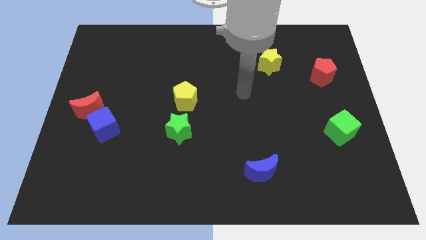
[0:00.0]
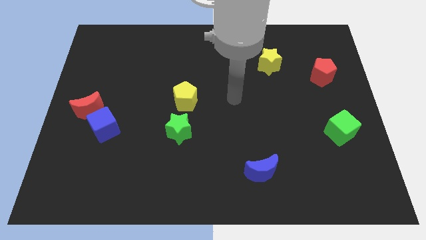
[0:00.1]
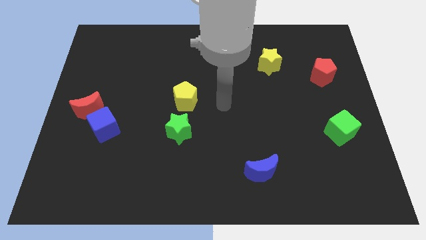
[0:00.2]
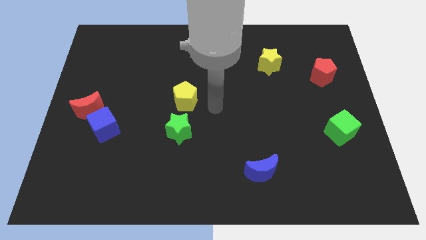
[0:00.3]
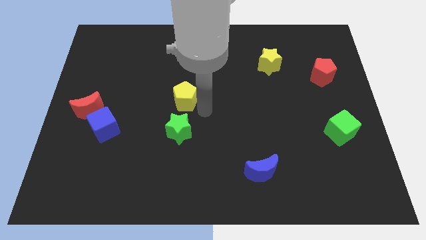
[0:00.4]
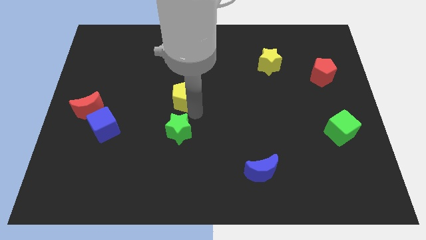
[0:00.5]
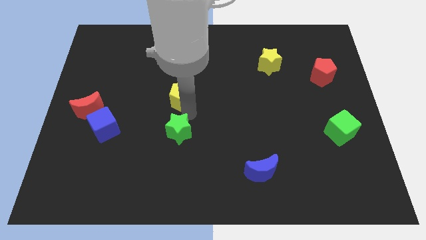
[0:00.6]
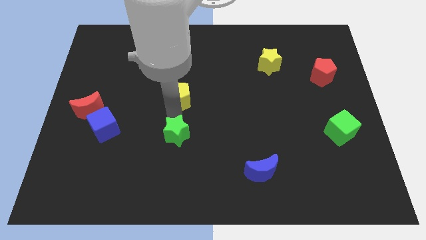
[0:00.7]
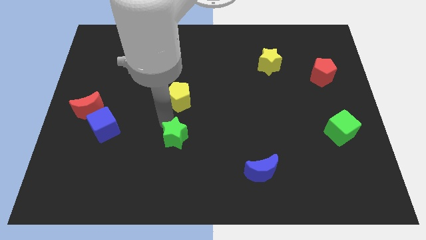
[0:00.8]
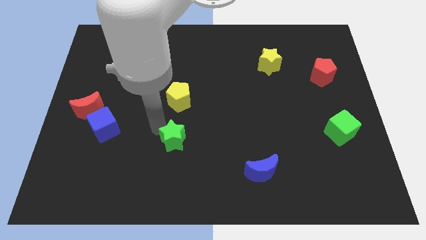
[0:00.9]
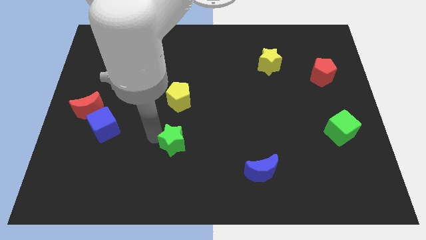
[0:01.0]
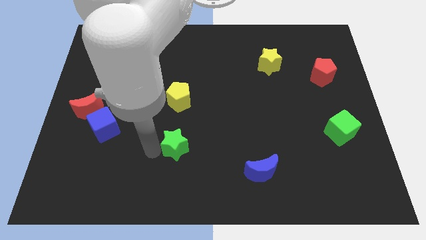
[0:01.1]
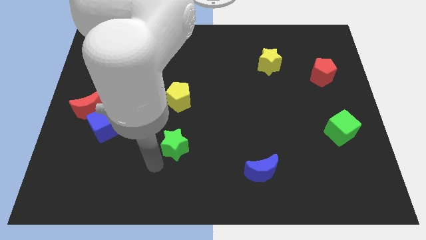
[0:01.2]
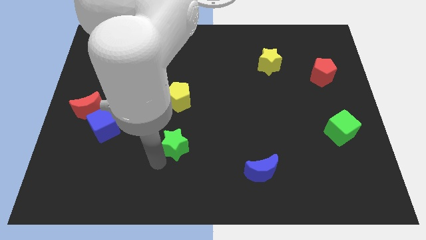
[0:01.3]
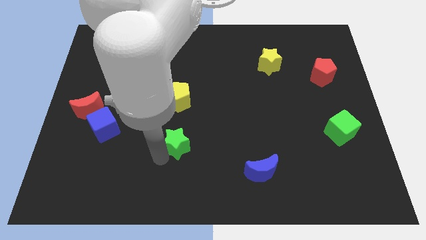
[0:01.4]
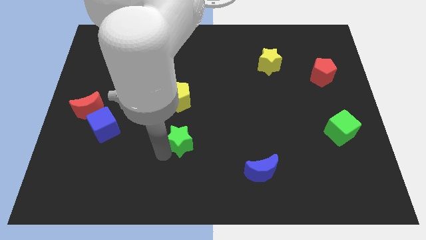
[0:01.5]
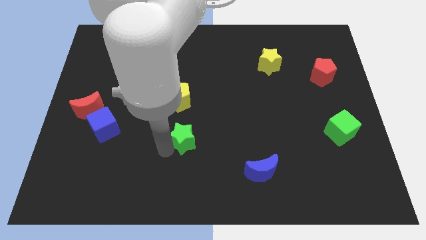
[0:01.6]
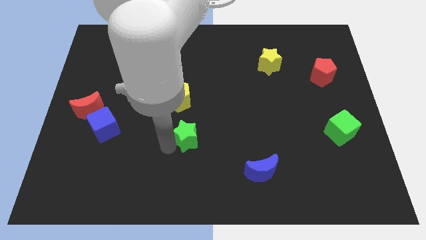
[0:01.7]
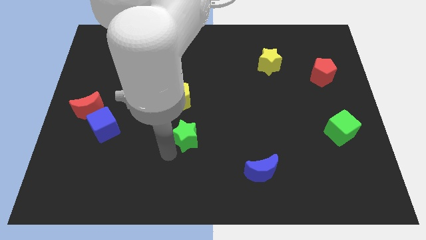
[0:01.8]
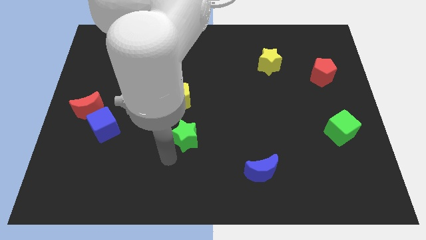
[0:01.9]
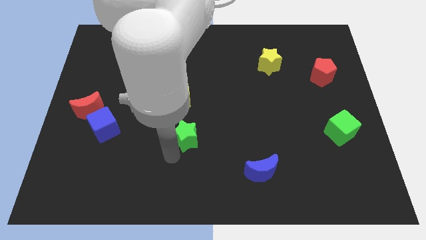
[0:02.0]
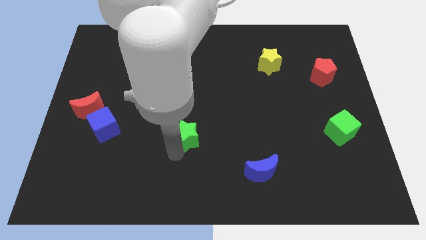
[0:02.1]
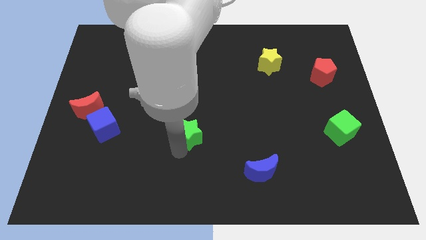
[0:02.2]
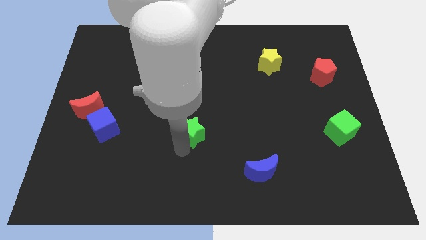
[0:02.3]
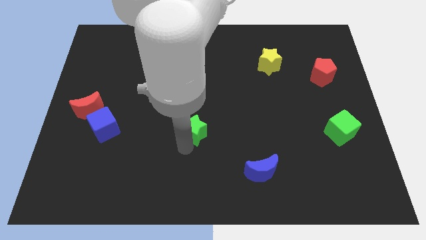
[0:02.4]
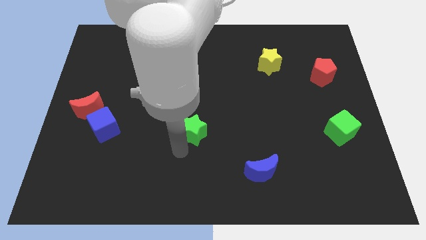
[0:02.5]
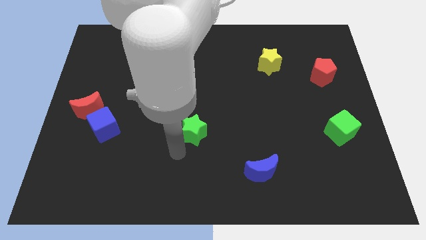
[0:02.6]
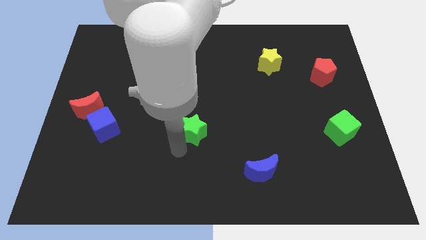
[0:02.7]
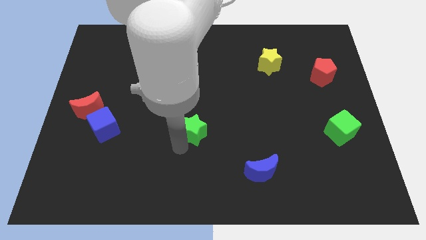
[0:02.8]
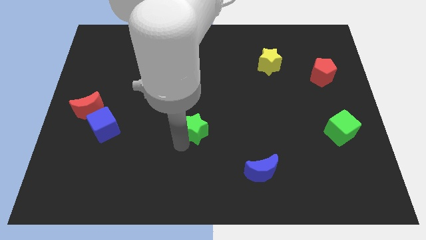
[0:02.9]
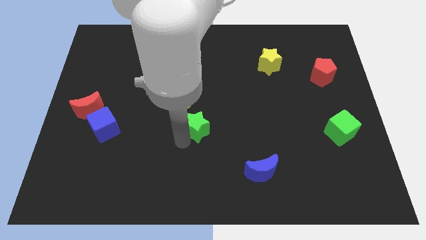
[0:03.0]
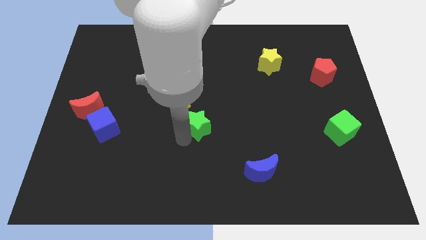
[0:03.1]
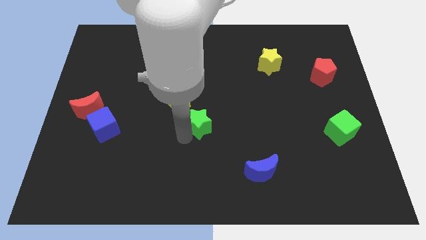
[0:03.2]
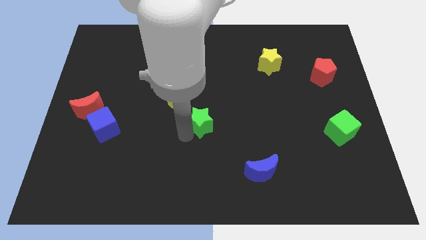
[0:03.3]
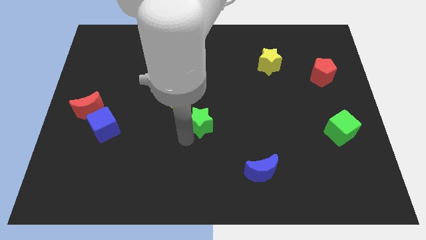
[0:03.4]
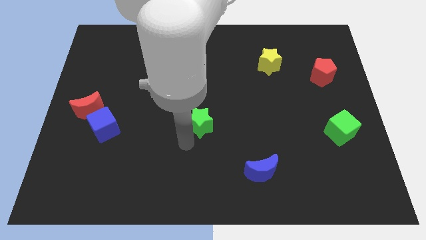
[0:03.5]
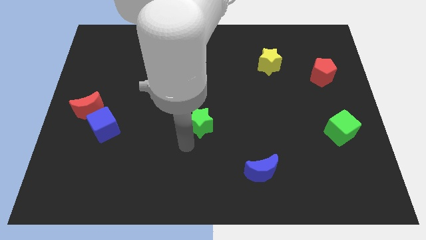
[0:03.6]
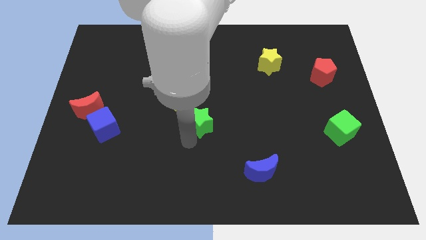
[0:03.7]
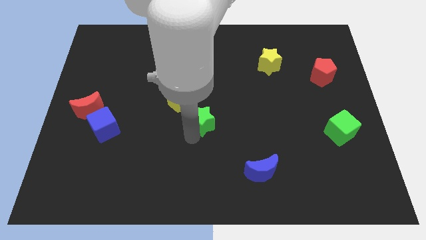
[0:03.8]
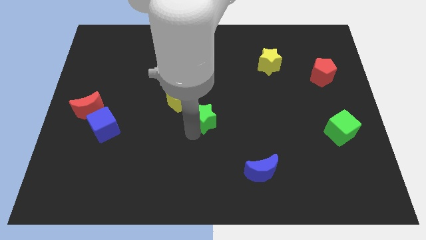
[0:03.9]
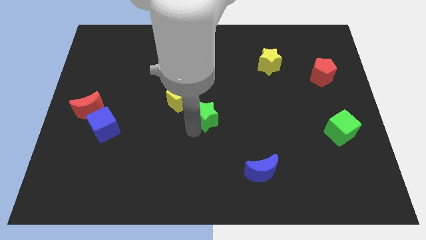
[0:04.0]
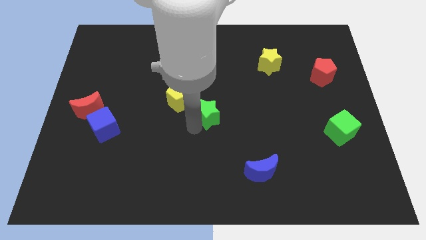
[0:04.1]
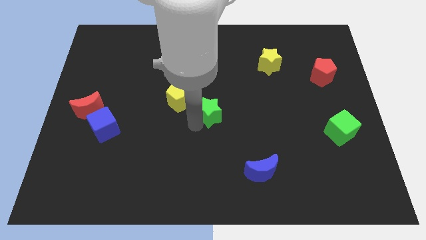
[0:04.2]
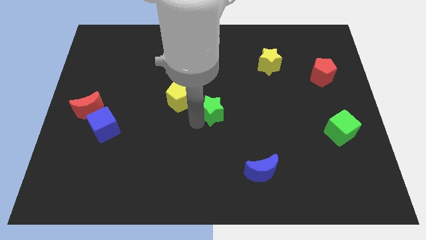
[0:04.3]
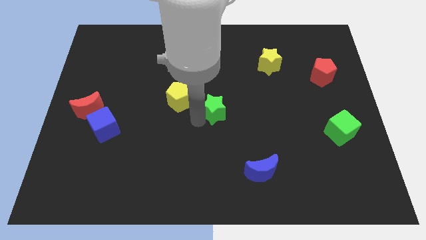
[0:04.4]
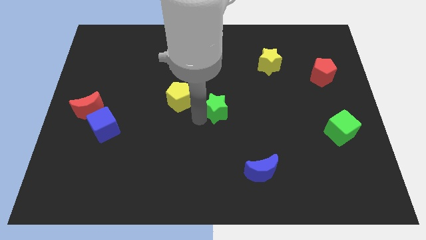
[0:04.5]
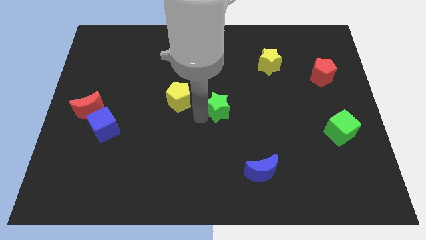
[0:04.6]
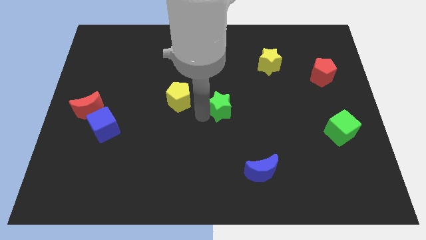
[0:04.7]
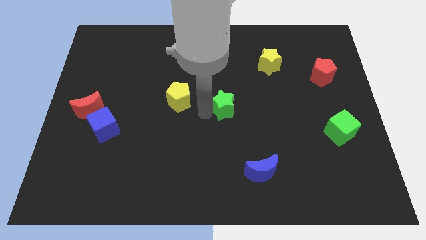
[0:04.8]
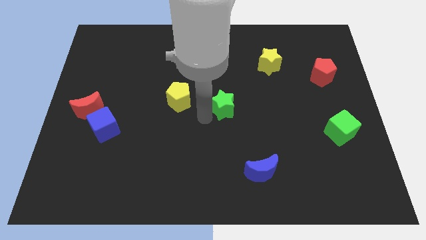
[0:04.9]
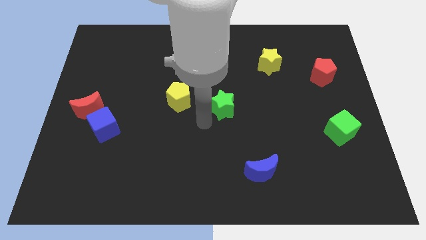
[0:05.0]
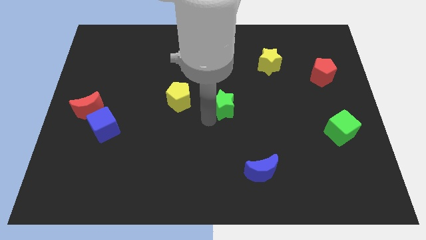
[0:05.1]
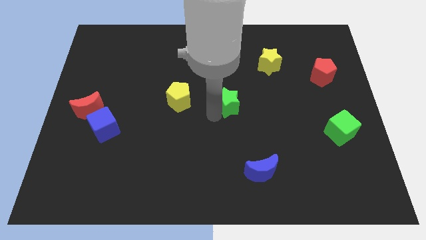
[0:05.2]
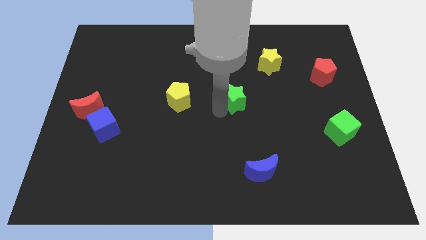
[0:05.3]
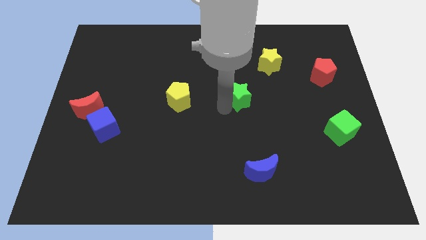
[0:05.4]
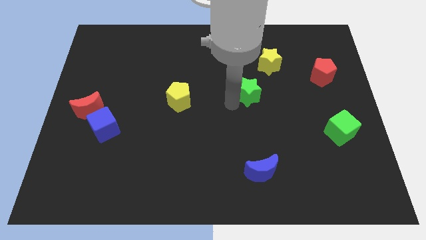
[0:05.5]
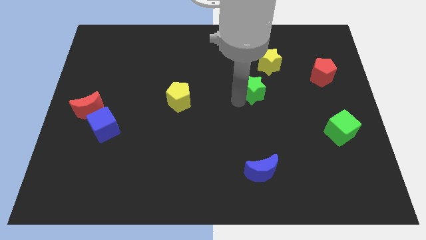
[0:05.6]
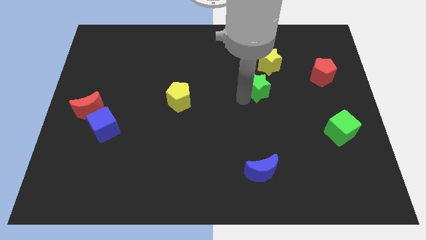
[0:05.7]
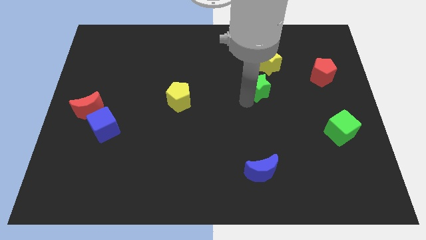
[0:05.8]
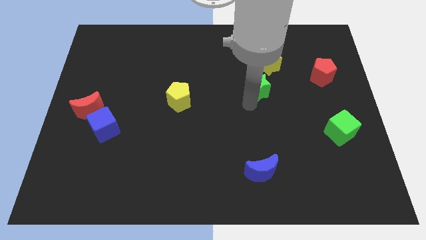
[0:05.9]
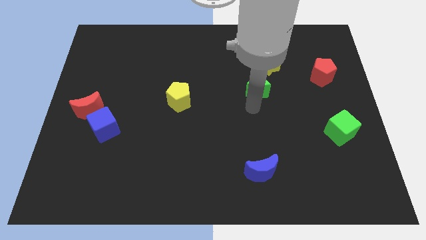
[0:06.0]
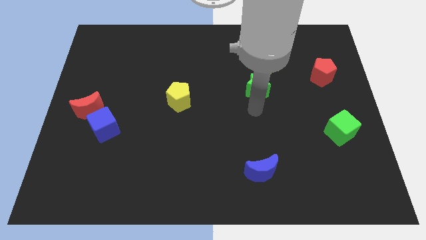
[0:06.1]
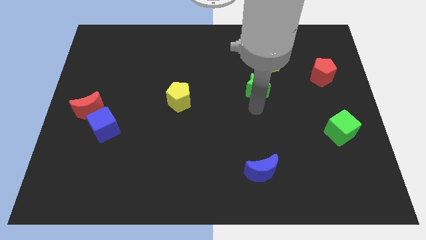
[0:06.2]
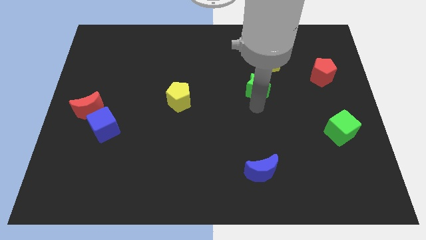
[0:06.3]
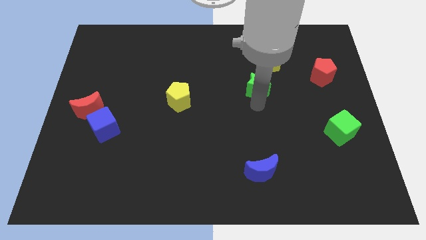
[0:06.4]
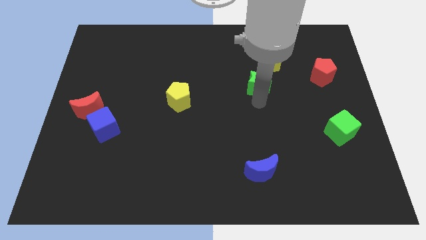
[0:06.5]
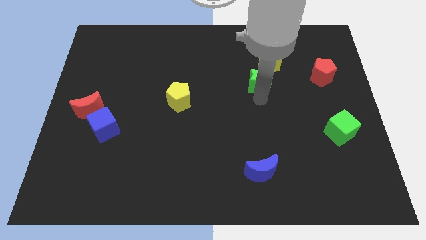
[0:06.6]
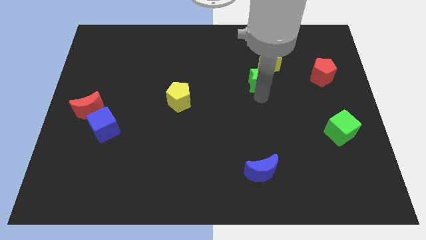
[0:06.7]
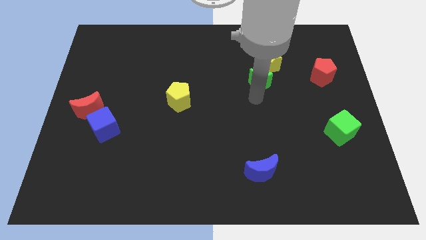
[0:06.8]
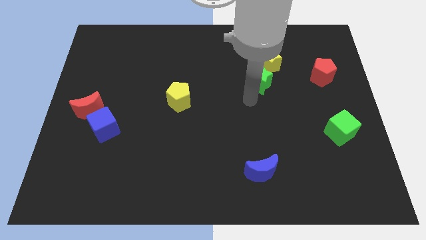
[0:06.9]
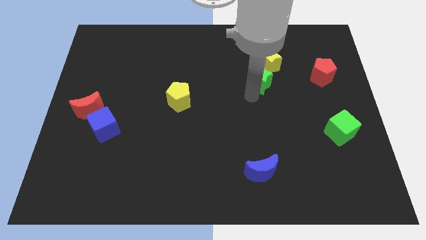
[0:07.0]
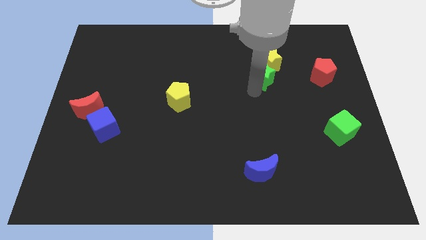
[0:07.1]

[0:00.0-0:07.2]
slide the green star towards the yellow star
